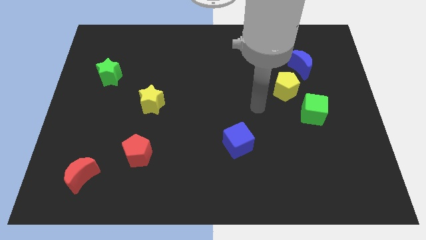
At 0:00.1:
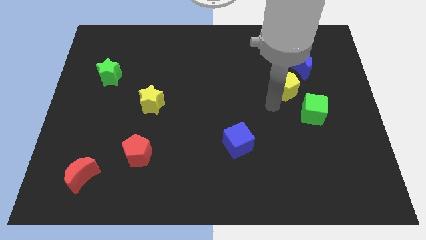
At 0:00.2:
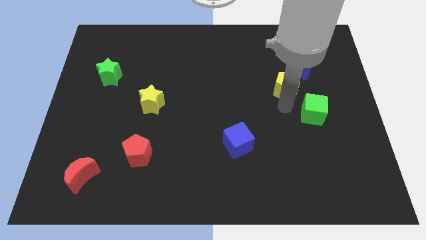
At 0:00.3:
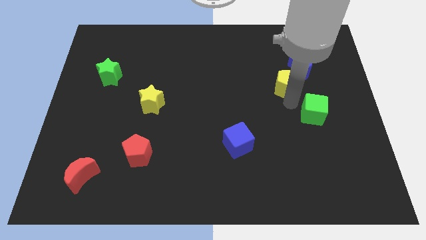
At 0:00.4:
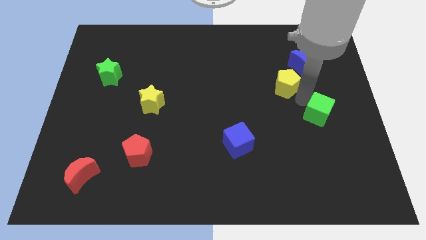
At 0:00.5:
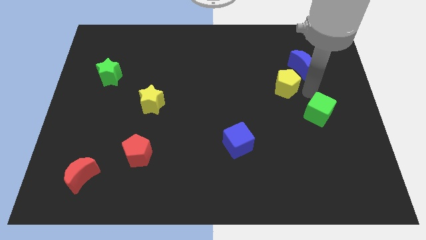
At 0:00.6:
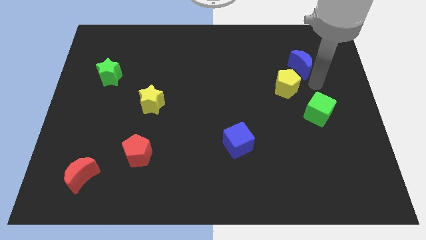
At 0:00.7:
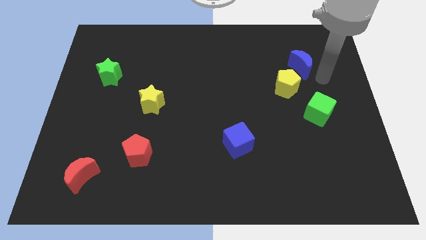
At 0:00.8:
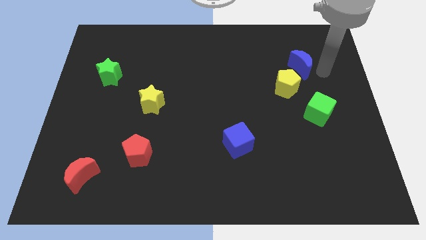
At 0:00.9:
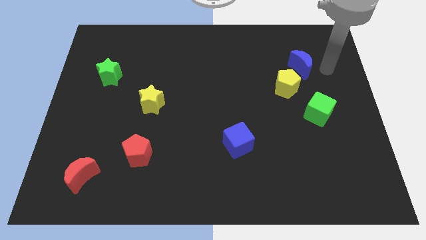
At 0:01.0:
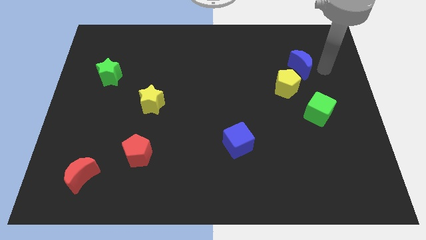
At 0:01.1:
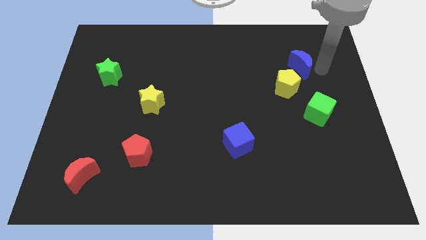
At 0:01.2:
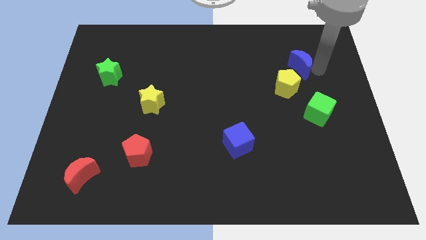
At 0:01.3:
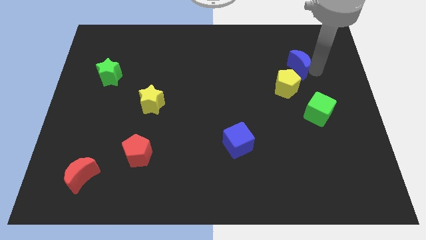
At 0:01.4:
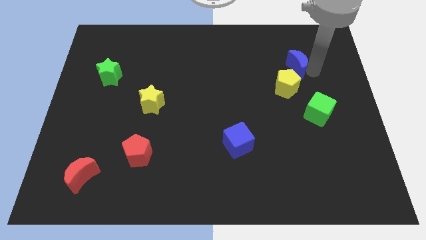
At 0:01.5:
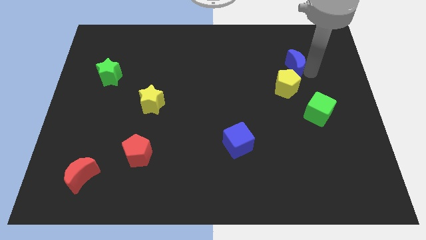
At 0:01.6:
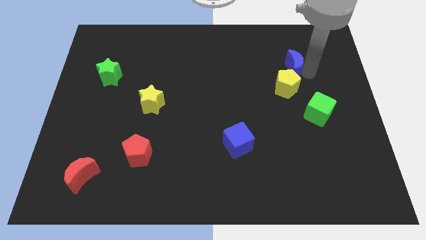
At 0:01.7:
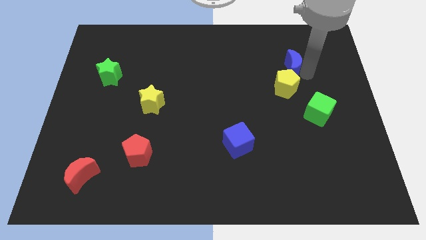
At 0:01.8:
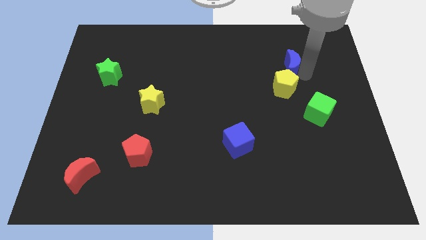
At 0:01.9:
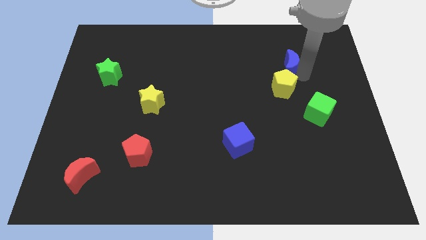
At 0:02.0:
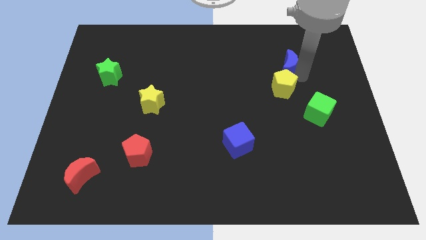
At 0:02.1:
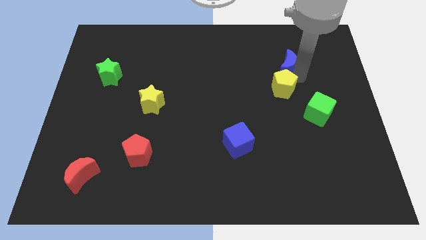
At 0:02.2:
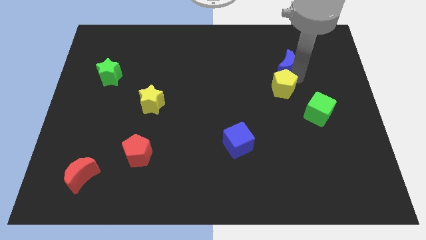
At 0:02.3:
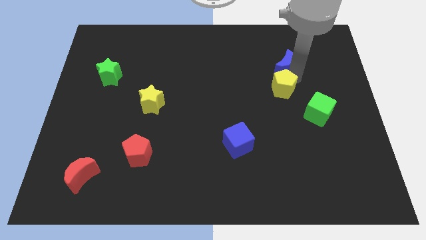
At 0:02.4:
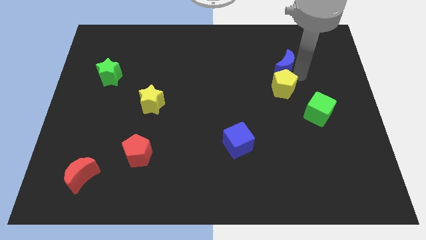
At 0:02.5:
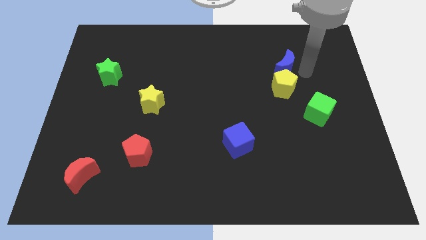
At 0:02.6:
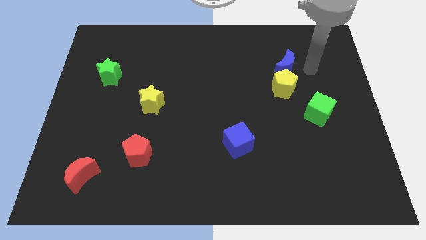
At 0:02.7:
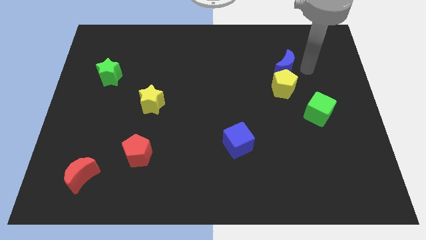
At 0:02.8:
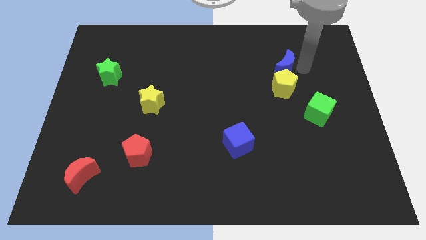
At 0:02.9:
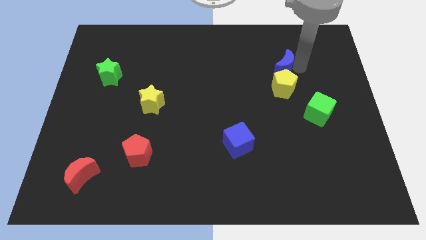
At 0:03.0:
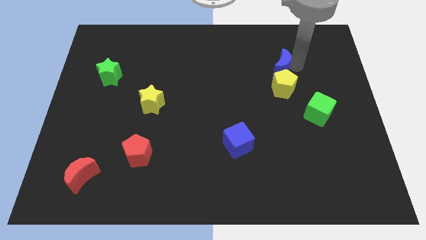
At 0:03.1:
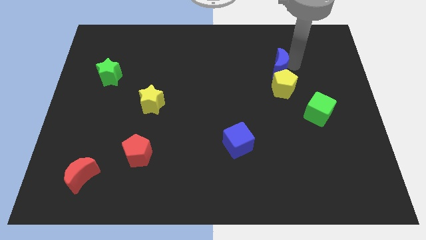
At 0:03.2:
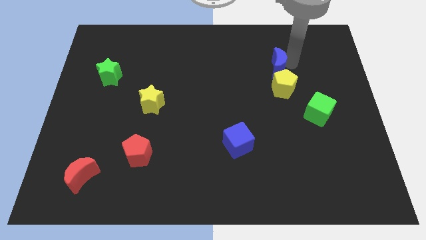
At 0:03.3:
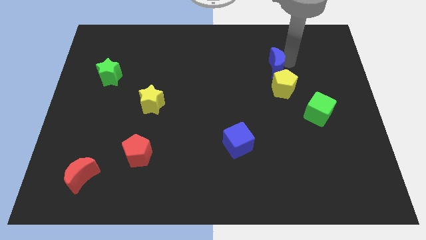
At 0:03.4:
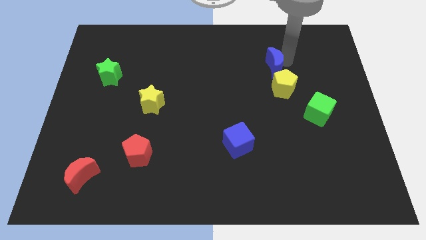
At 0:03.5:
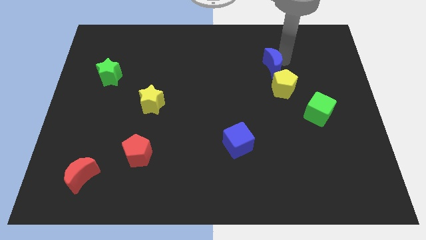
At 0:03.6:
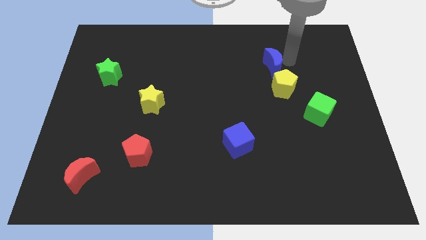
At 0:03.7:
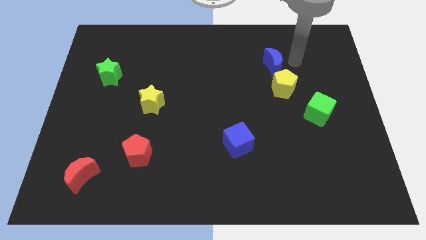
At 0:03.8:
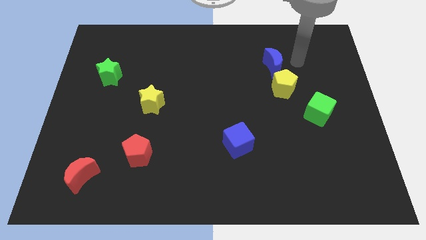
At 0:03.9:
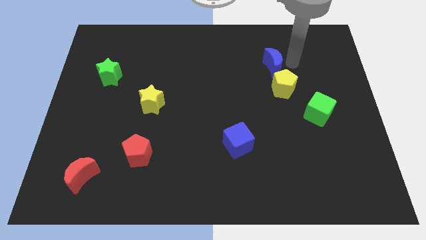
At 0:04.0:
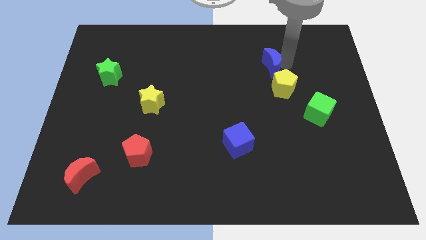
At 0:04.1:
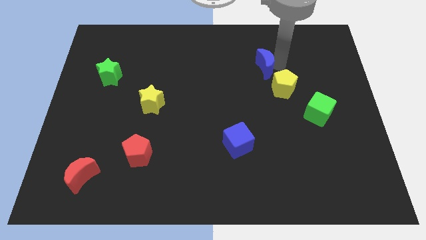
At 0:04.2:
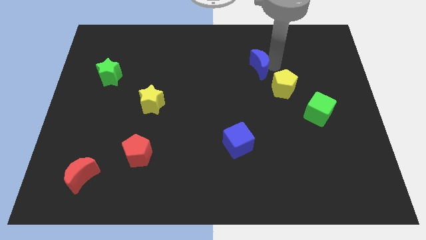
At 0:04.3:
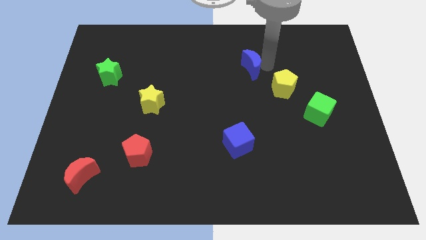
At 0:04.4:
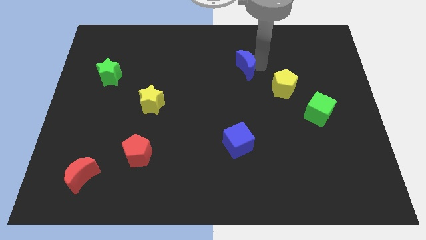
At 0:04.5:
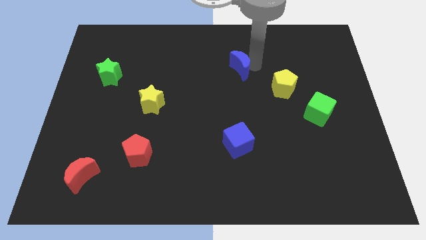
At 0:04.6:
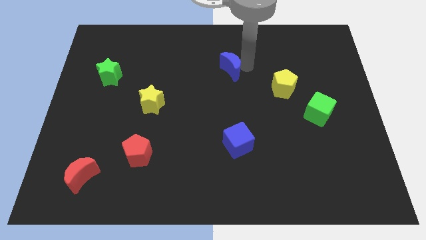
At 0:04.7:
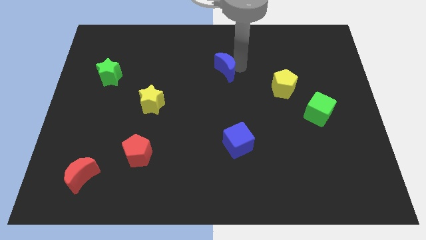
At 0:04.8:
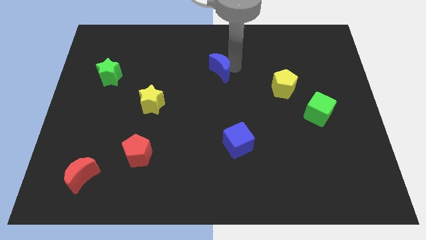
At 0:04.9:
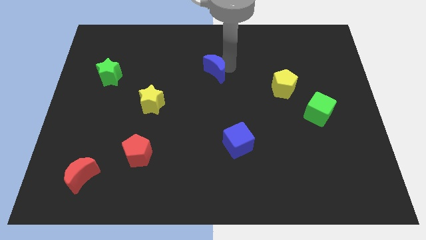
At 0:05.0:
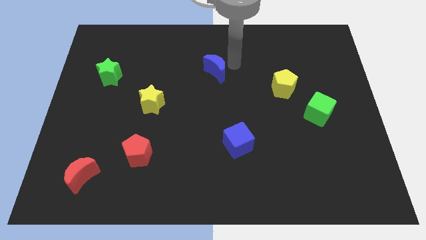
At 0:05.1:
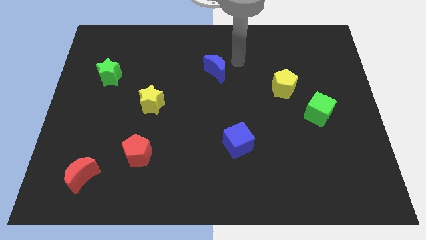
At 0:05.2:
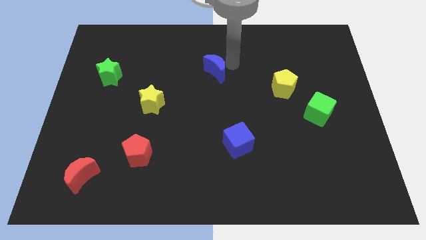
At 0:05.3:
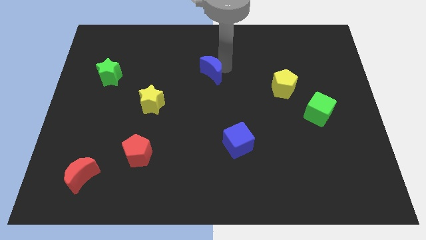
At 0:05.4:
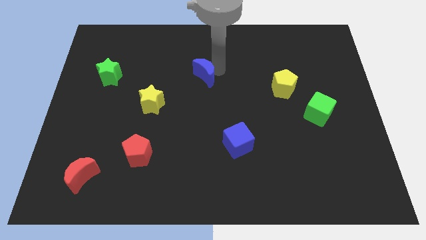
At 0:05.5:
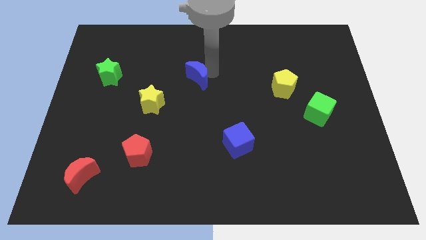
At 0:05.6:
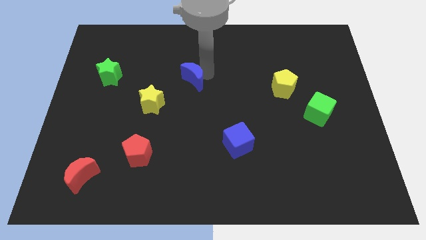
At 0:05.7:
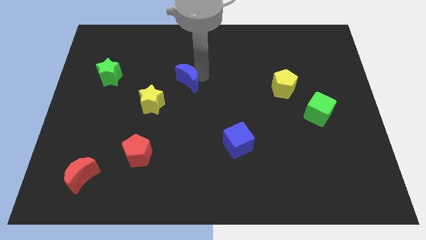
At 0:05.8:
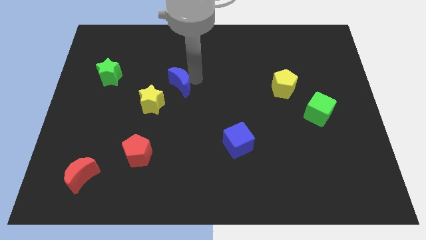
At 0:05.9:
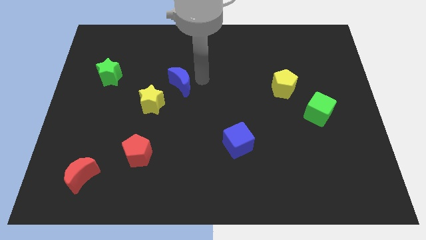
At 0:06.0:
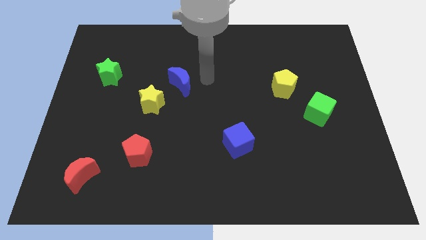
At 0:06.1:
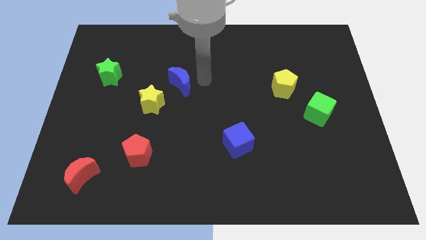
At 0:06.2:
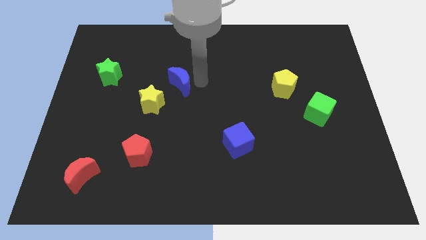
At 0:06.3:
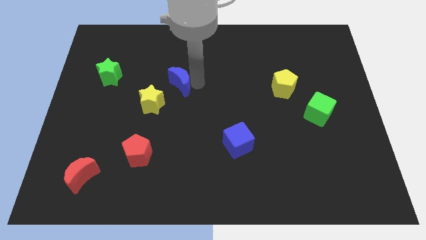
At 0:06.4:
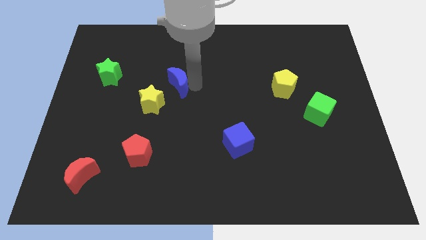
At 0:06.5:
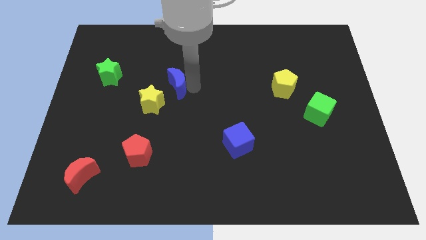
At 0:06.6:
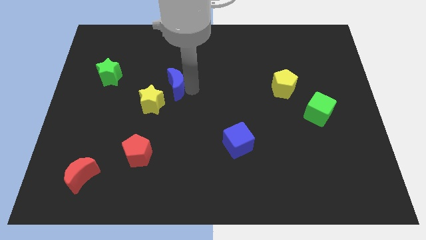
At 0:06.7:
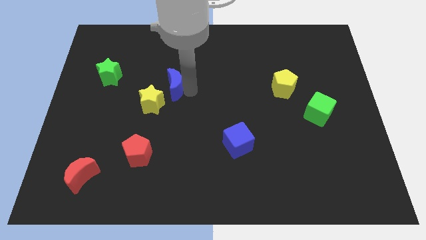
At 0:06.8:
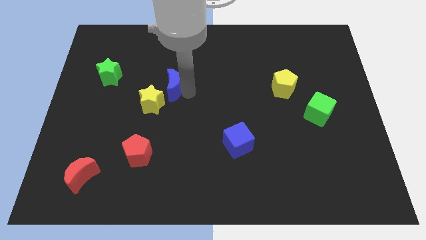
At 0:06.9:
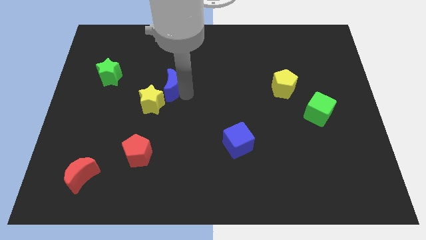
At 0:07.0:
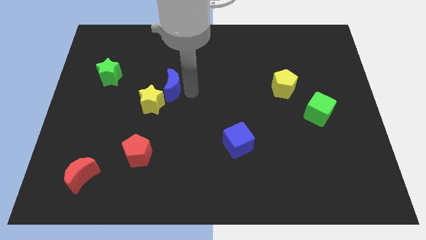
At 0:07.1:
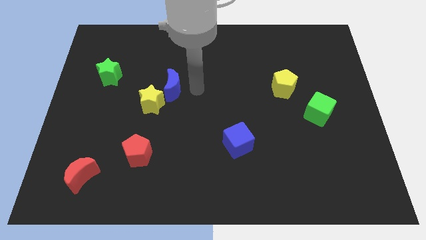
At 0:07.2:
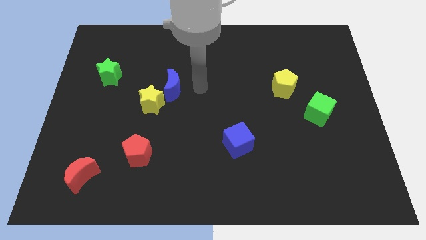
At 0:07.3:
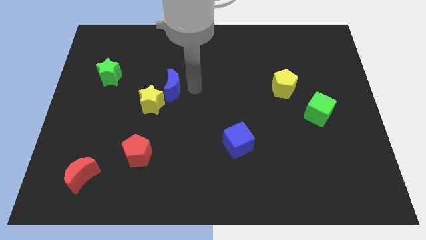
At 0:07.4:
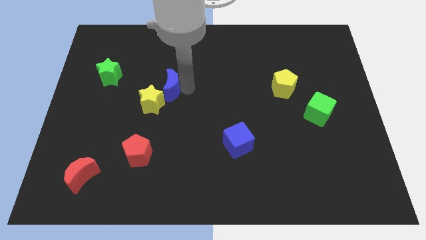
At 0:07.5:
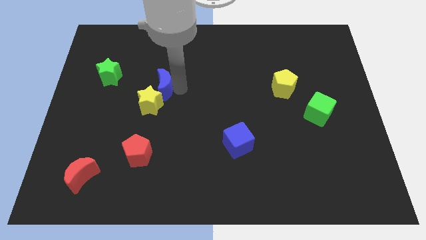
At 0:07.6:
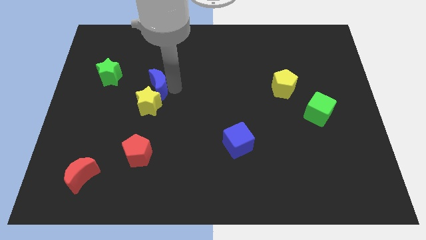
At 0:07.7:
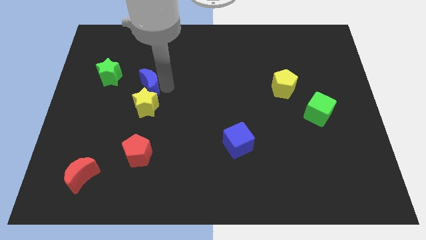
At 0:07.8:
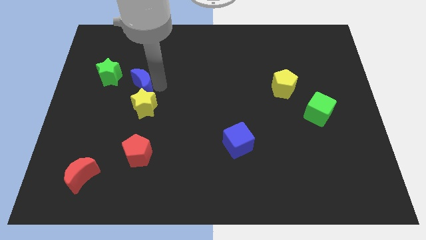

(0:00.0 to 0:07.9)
move the blue moon to the bottom right side of the green star
